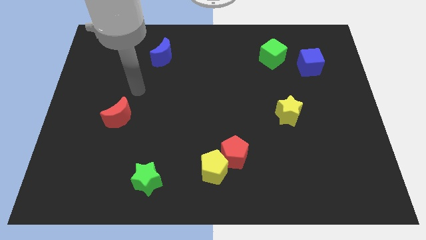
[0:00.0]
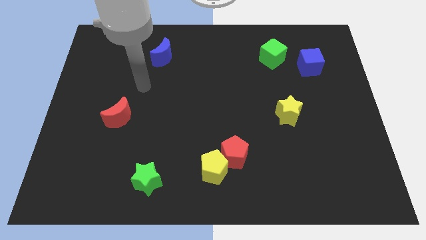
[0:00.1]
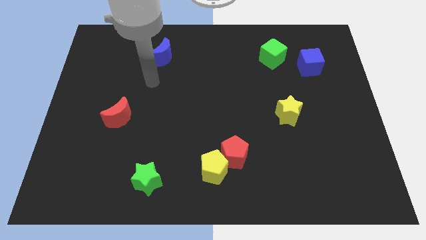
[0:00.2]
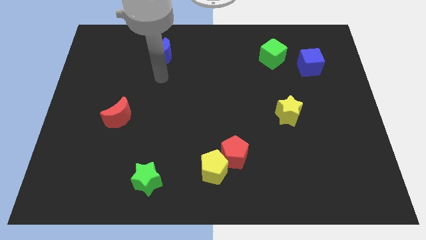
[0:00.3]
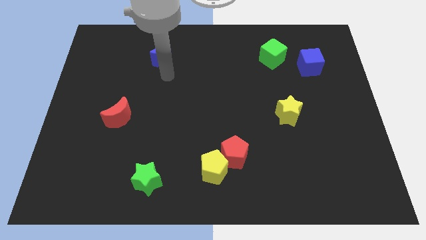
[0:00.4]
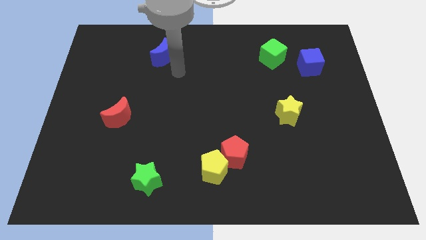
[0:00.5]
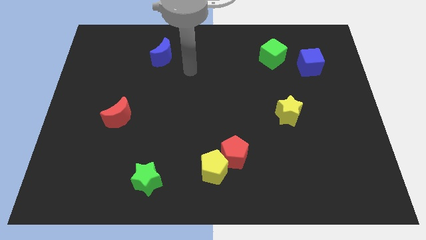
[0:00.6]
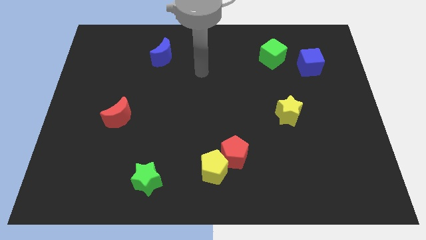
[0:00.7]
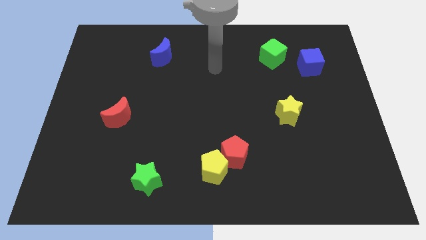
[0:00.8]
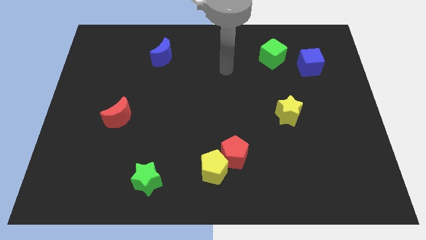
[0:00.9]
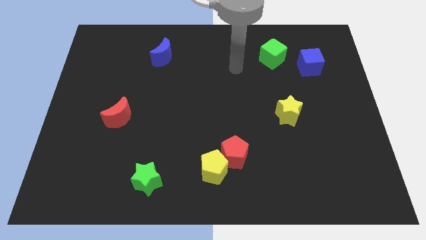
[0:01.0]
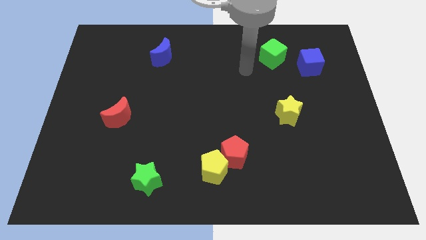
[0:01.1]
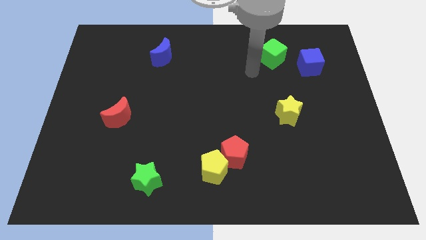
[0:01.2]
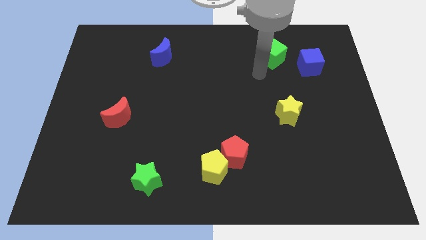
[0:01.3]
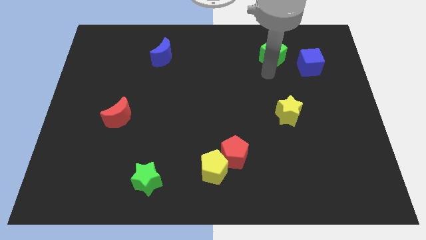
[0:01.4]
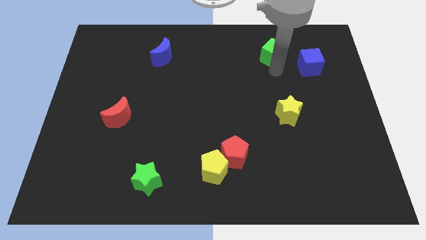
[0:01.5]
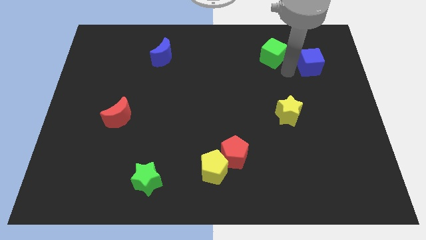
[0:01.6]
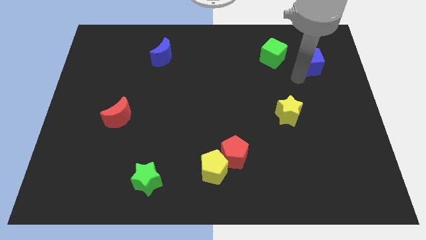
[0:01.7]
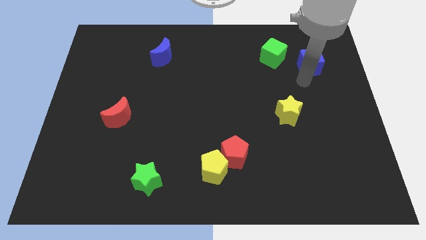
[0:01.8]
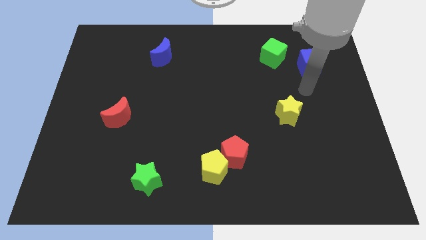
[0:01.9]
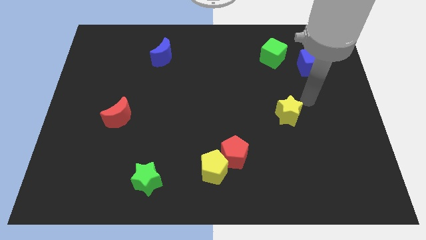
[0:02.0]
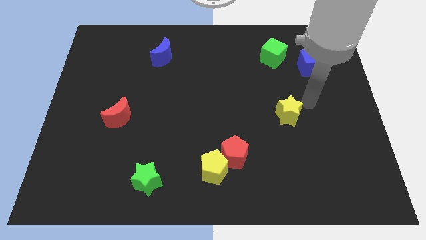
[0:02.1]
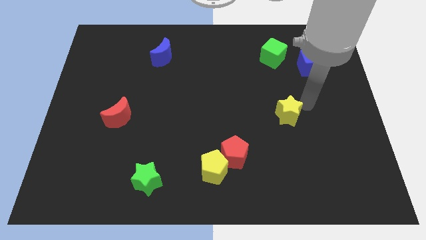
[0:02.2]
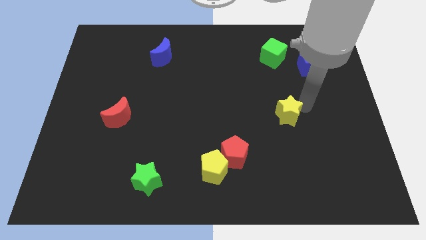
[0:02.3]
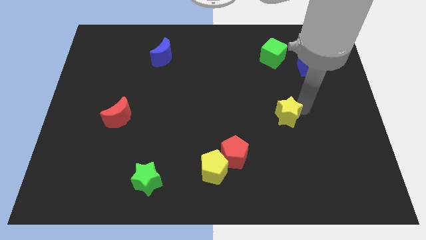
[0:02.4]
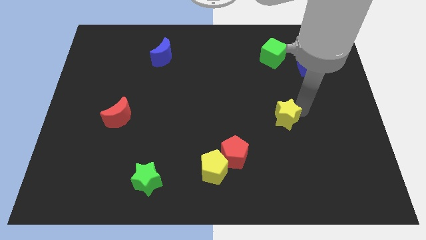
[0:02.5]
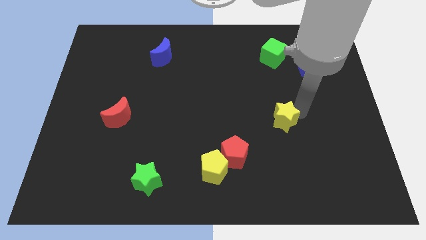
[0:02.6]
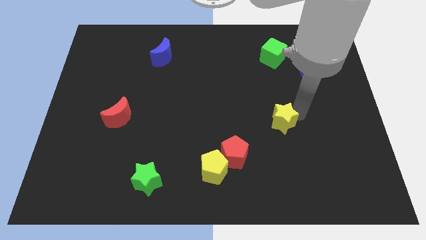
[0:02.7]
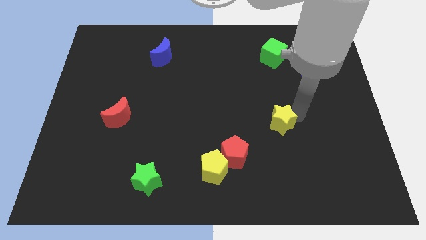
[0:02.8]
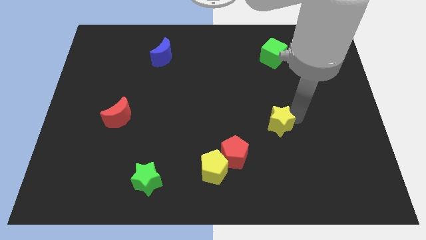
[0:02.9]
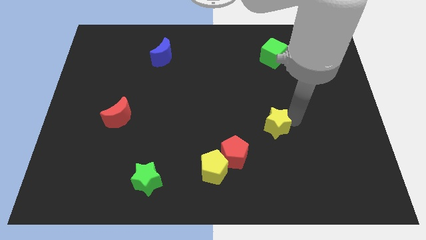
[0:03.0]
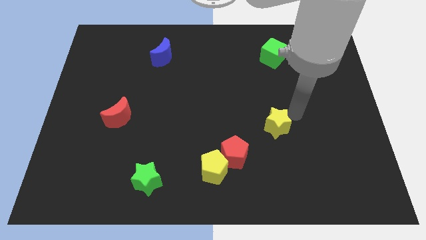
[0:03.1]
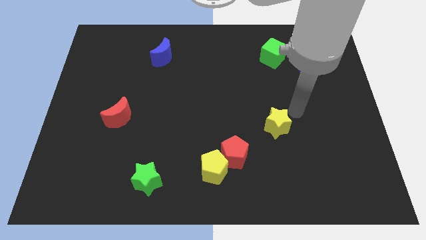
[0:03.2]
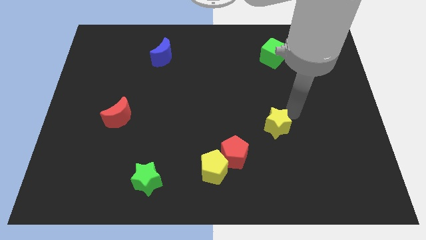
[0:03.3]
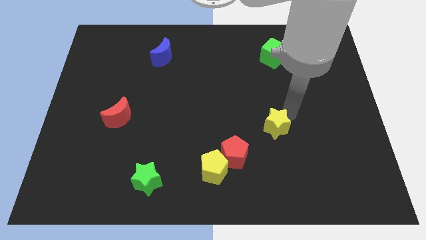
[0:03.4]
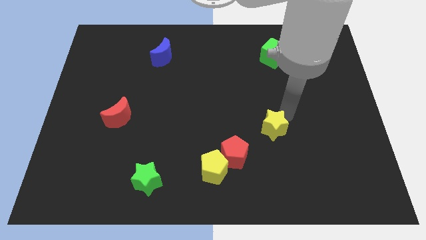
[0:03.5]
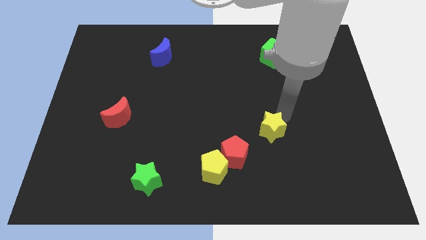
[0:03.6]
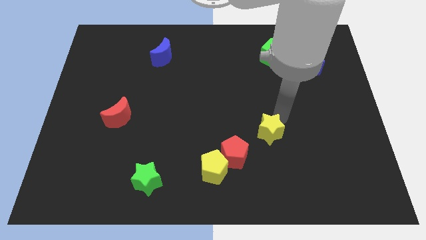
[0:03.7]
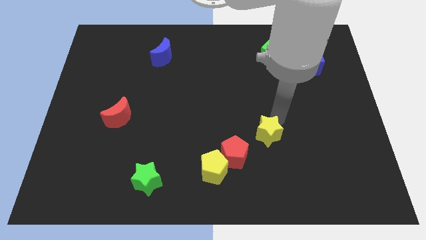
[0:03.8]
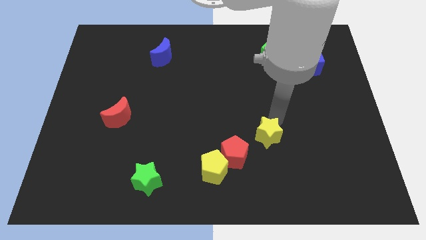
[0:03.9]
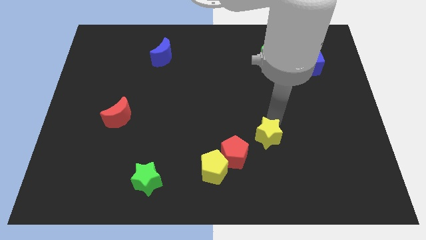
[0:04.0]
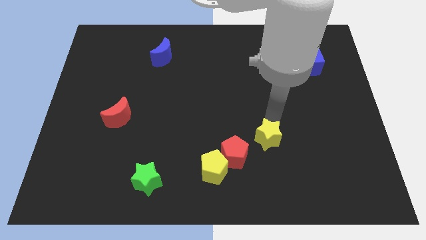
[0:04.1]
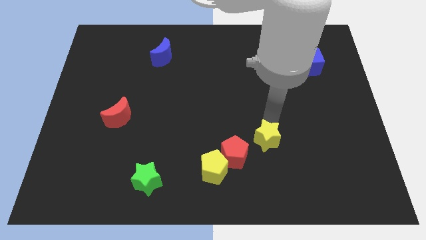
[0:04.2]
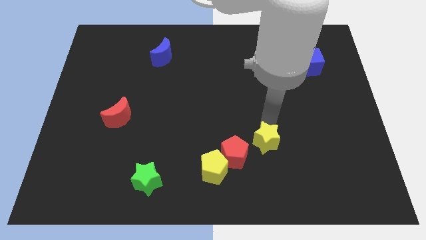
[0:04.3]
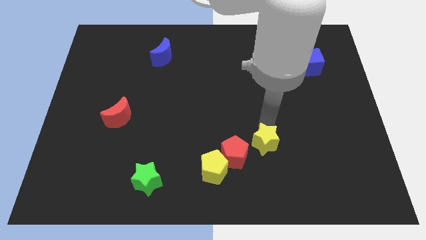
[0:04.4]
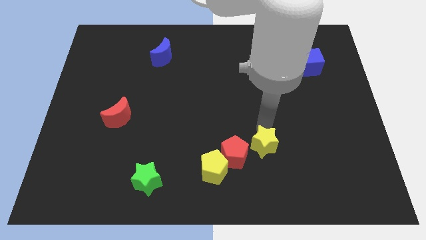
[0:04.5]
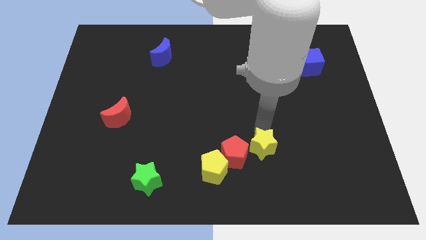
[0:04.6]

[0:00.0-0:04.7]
push the yellow star to the red pentagon

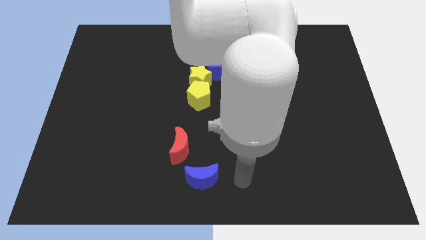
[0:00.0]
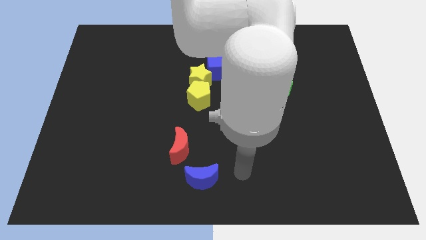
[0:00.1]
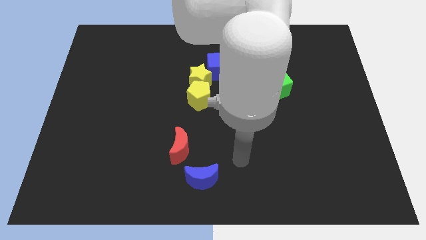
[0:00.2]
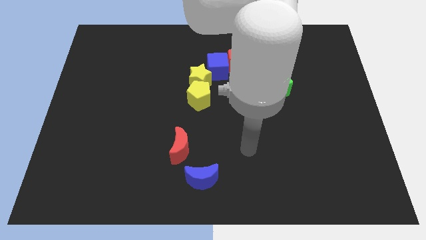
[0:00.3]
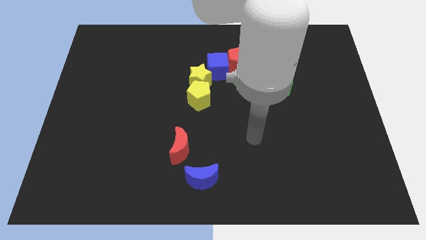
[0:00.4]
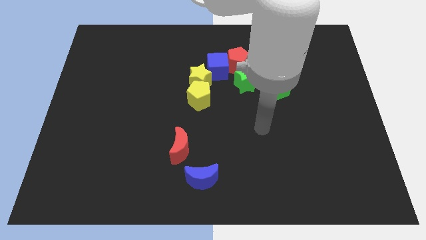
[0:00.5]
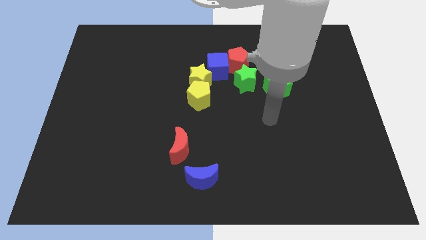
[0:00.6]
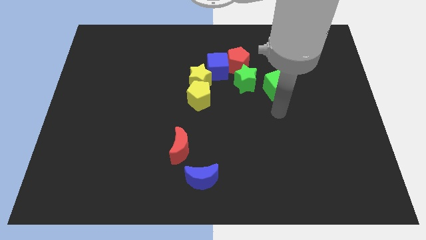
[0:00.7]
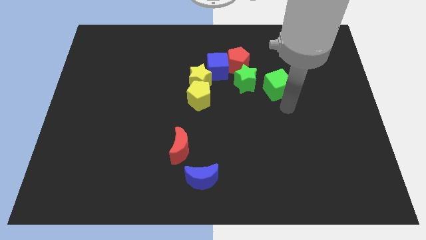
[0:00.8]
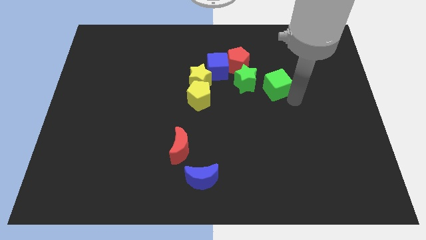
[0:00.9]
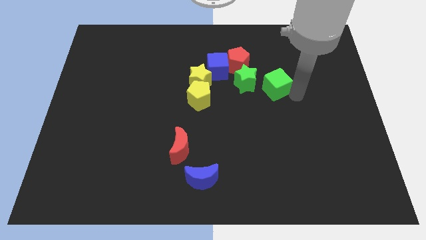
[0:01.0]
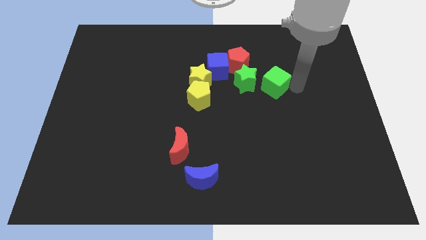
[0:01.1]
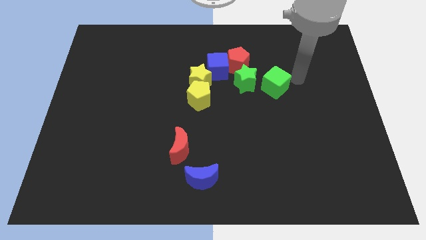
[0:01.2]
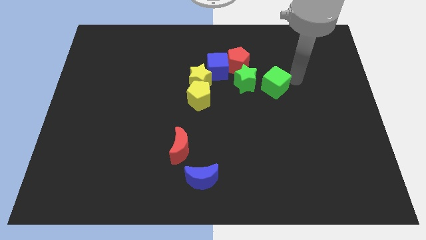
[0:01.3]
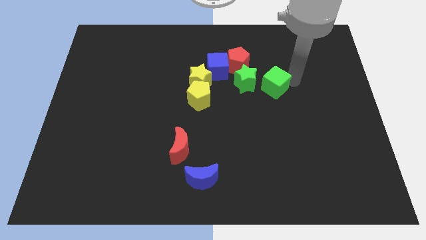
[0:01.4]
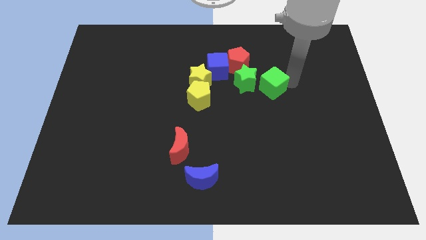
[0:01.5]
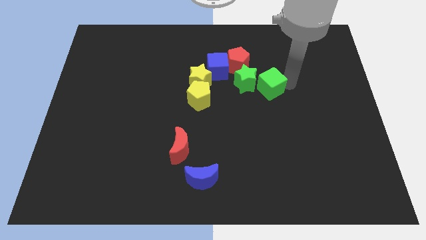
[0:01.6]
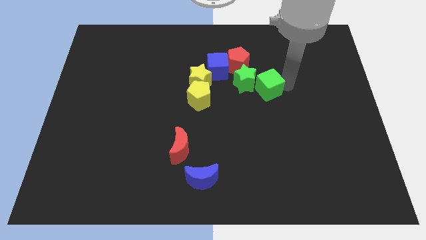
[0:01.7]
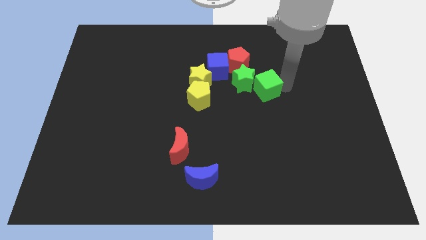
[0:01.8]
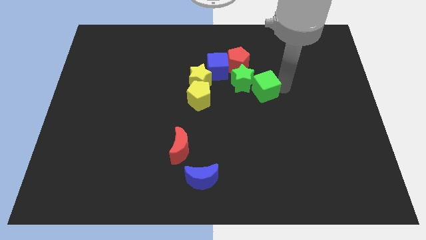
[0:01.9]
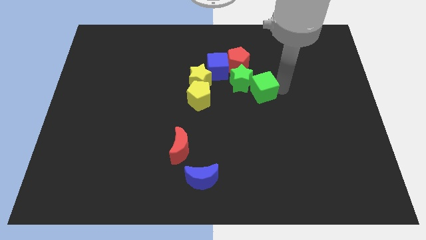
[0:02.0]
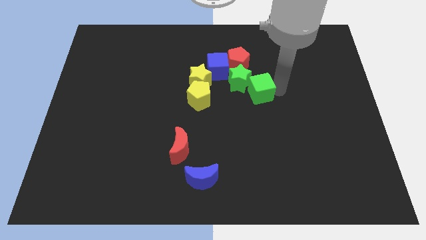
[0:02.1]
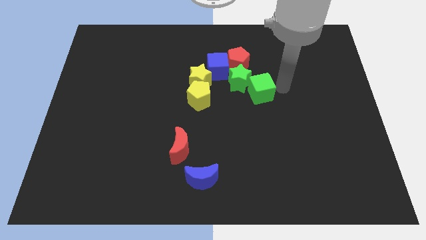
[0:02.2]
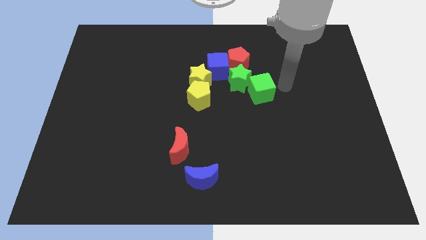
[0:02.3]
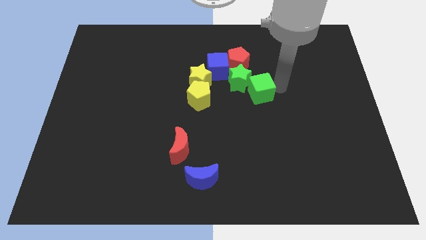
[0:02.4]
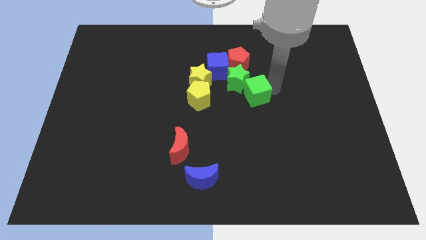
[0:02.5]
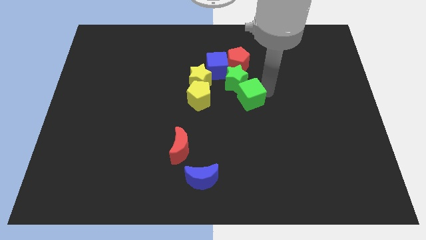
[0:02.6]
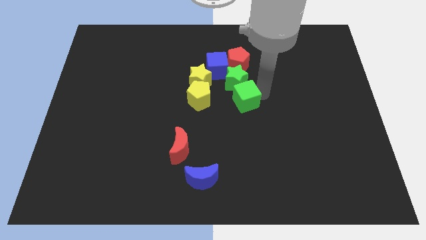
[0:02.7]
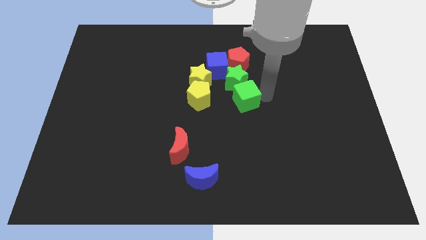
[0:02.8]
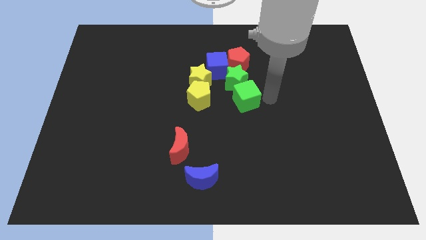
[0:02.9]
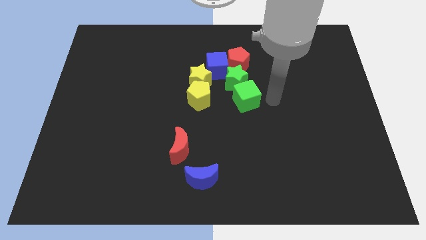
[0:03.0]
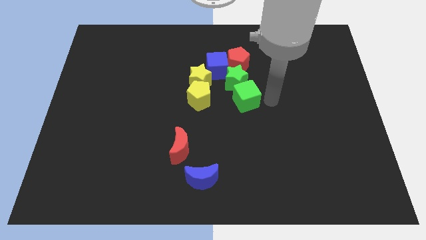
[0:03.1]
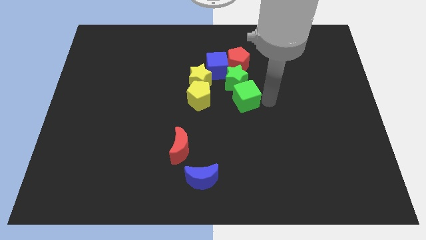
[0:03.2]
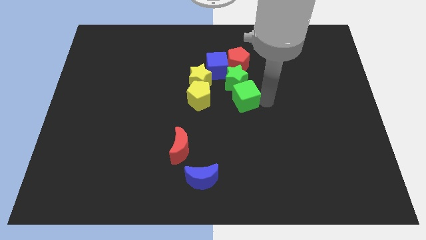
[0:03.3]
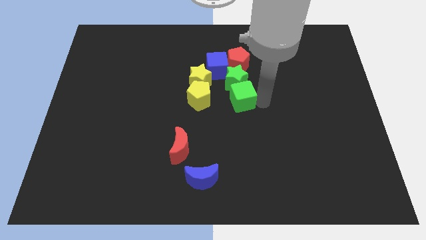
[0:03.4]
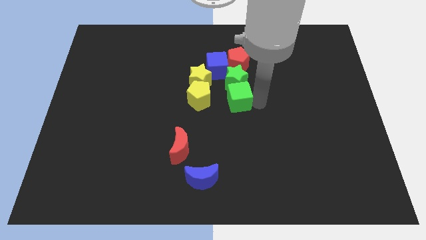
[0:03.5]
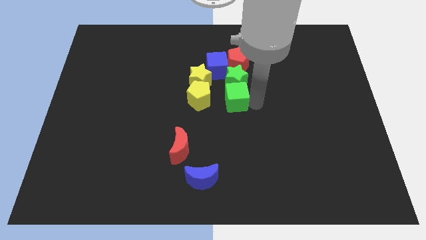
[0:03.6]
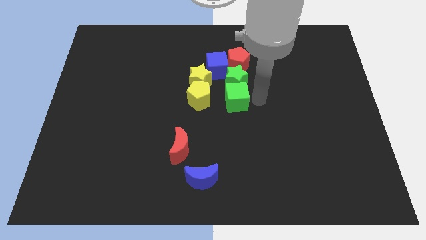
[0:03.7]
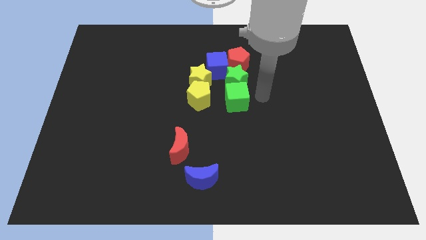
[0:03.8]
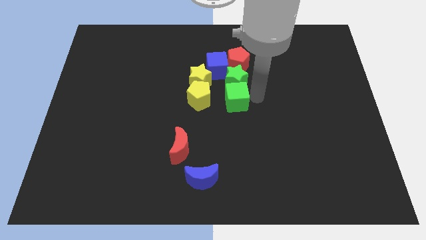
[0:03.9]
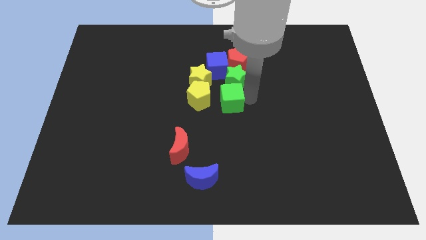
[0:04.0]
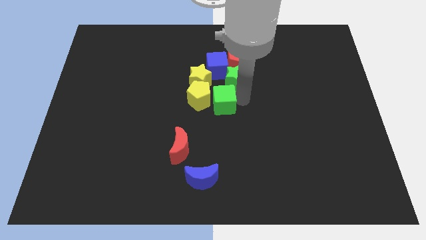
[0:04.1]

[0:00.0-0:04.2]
push the green cube next to the yellow pentagon
